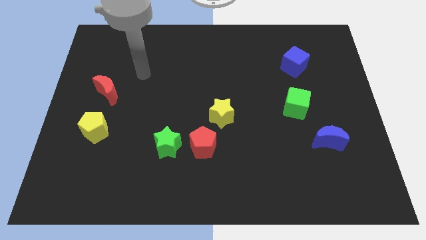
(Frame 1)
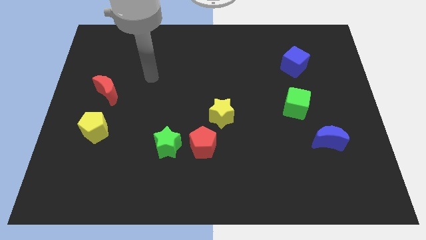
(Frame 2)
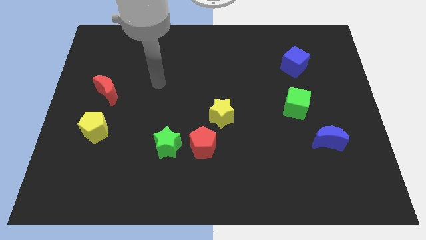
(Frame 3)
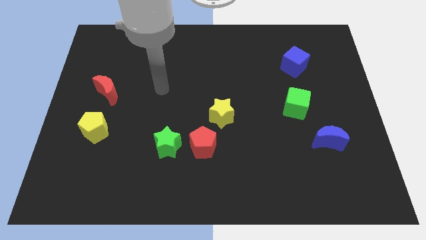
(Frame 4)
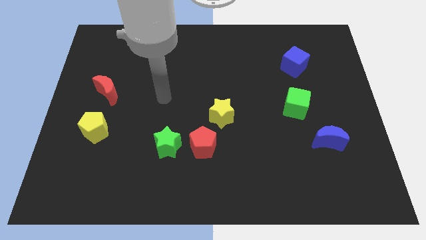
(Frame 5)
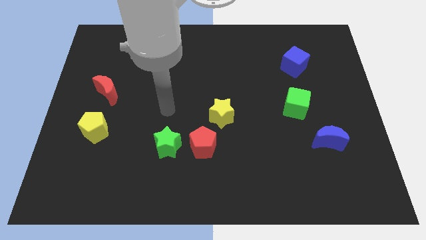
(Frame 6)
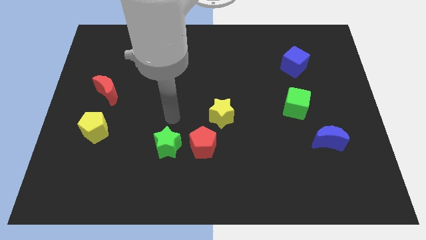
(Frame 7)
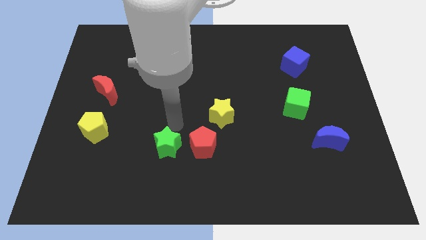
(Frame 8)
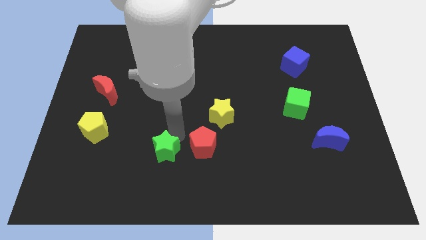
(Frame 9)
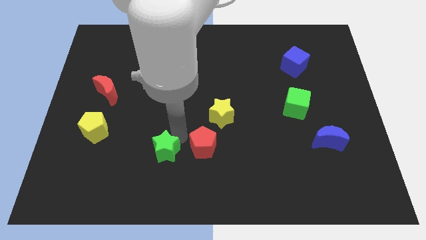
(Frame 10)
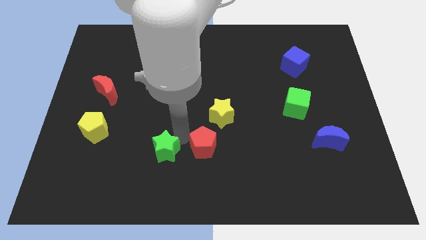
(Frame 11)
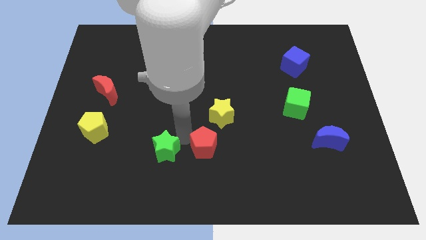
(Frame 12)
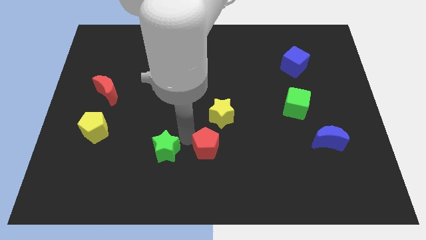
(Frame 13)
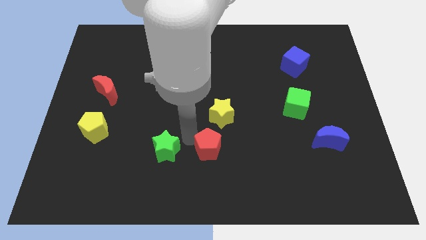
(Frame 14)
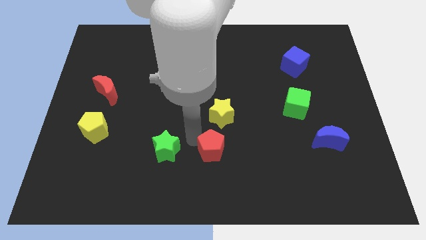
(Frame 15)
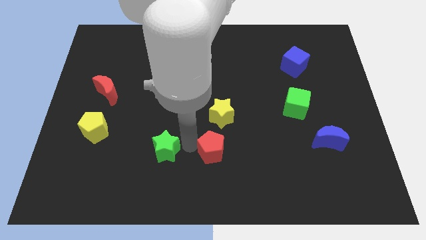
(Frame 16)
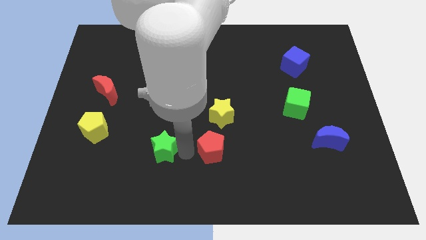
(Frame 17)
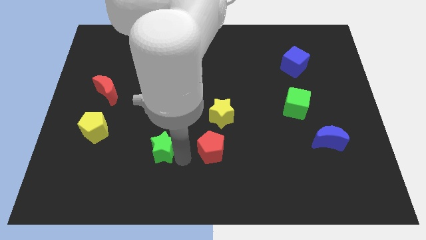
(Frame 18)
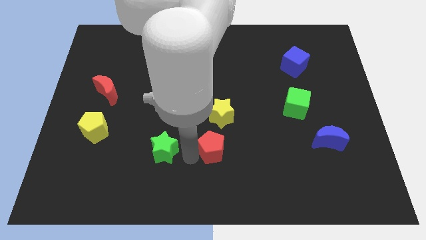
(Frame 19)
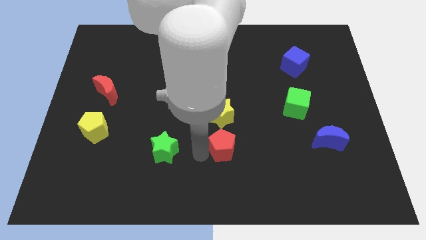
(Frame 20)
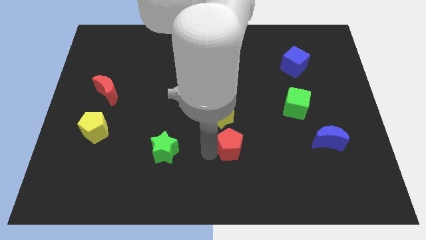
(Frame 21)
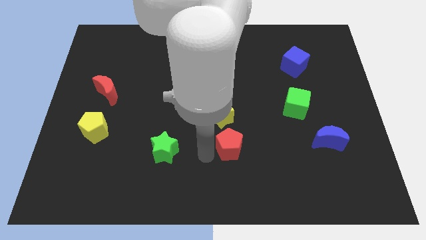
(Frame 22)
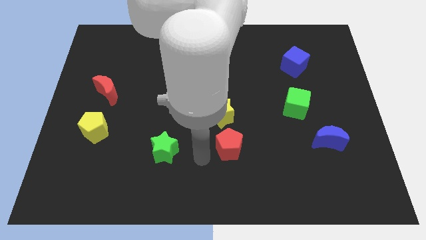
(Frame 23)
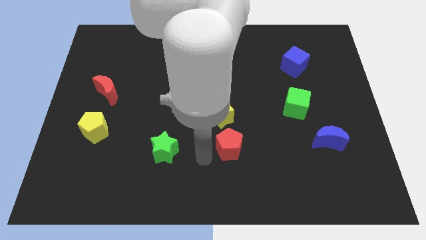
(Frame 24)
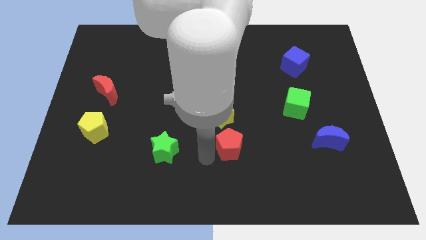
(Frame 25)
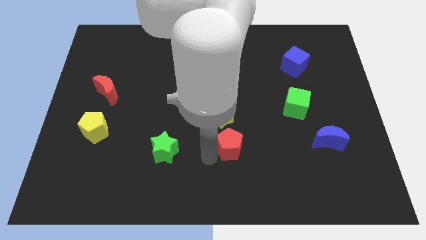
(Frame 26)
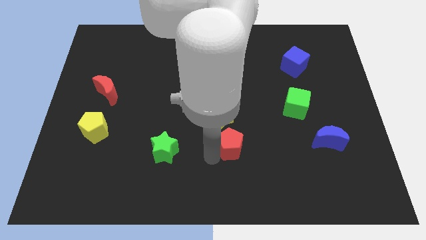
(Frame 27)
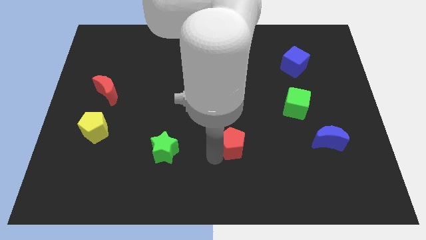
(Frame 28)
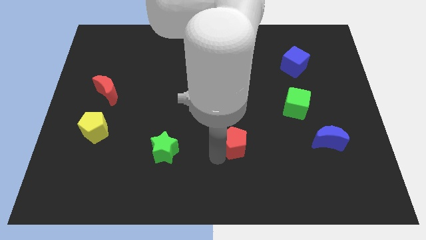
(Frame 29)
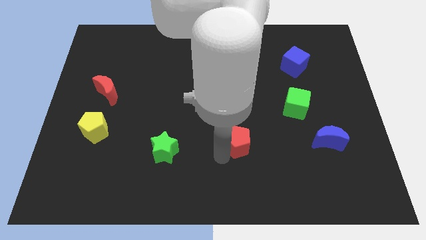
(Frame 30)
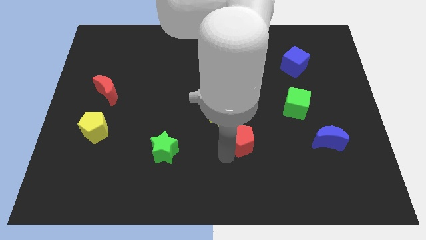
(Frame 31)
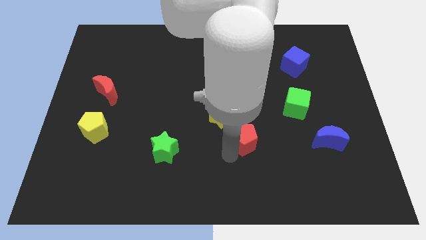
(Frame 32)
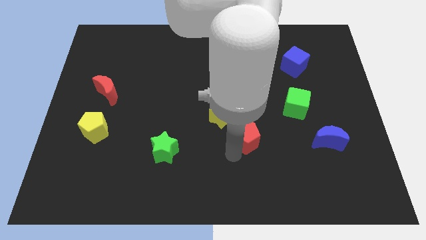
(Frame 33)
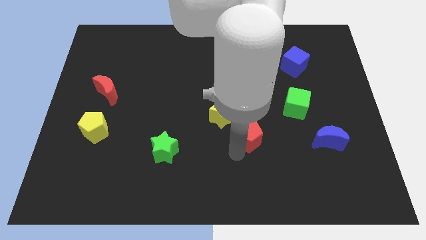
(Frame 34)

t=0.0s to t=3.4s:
slide the red pentagon upwards and to the right diagonally a bit

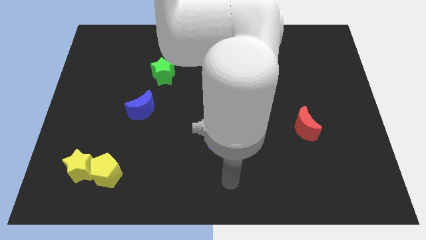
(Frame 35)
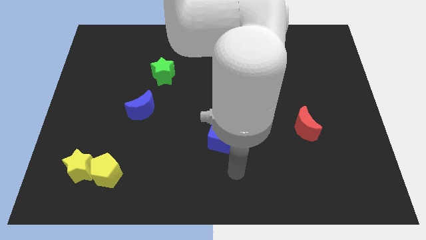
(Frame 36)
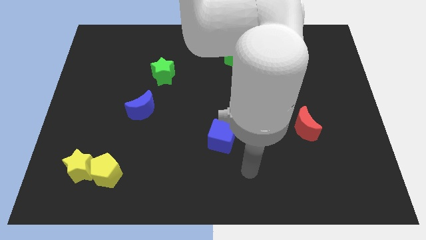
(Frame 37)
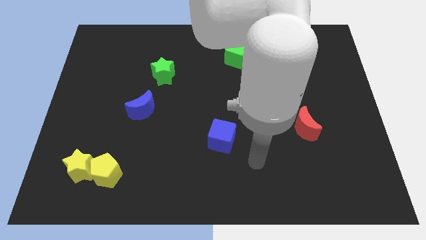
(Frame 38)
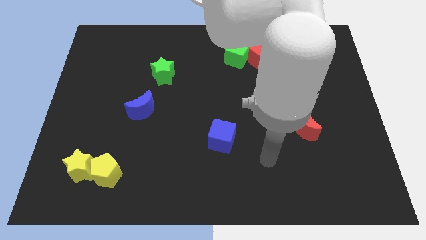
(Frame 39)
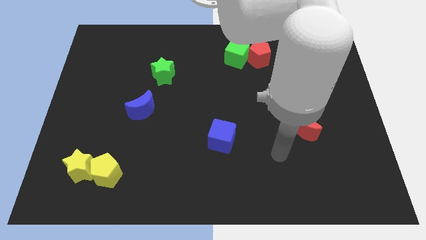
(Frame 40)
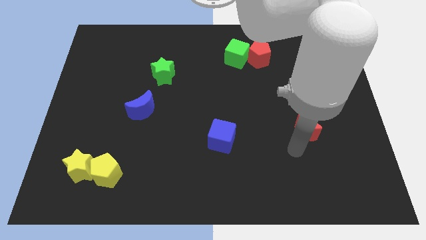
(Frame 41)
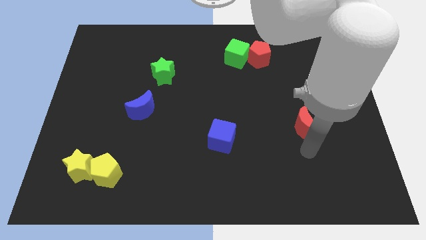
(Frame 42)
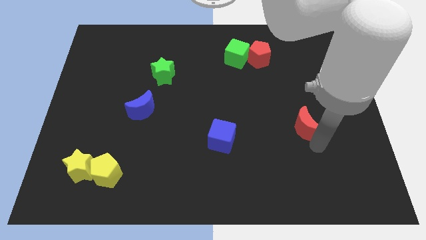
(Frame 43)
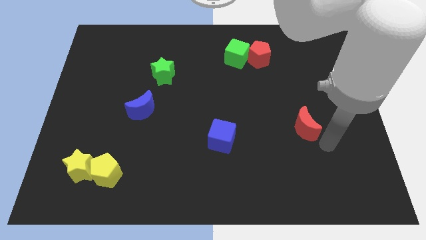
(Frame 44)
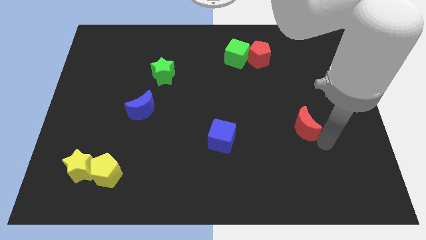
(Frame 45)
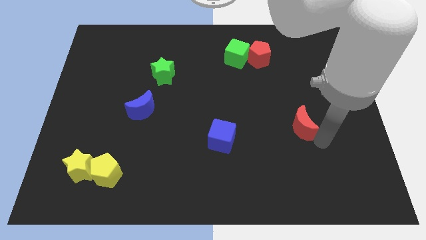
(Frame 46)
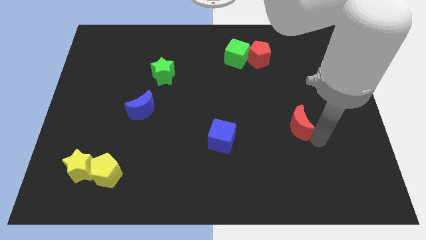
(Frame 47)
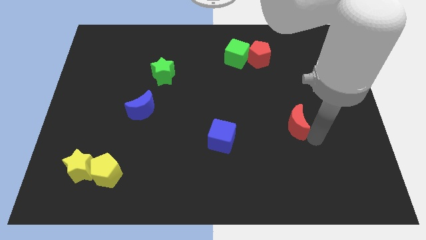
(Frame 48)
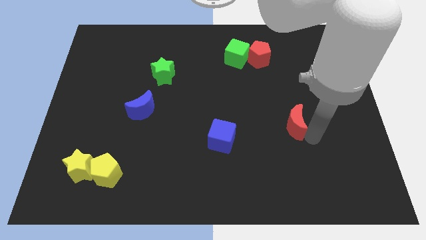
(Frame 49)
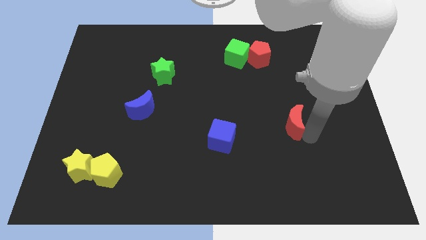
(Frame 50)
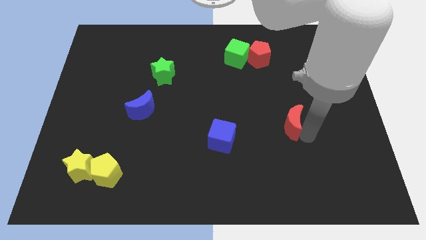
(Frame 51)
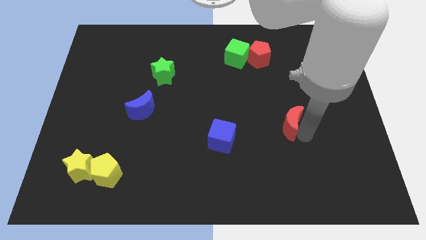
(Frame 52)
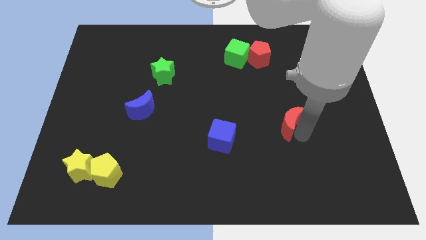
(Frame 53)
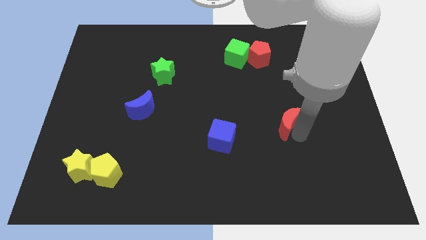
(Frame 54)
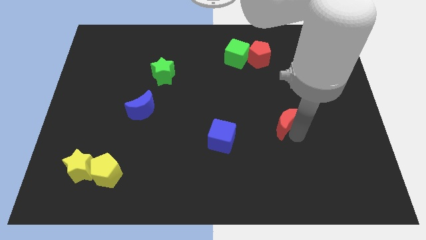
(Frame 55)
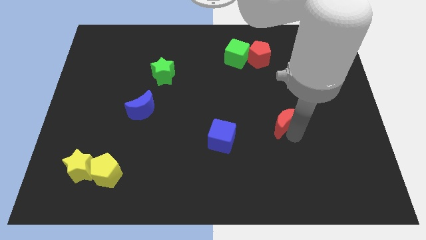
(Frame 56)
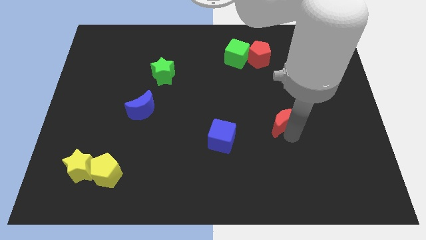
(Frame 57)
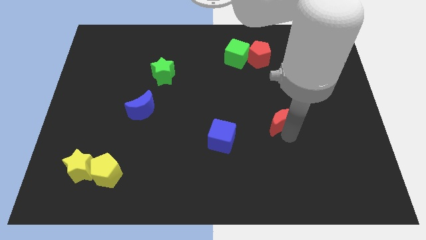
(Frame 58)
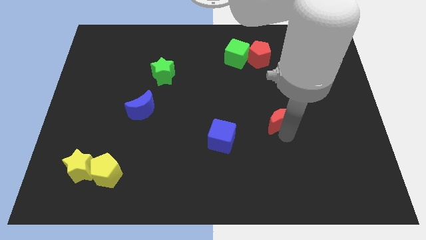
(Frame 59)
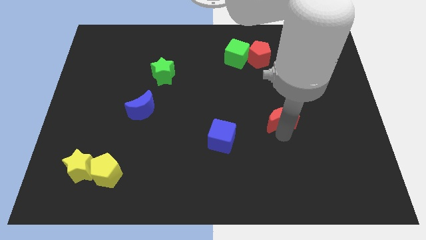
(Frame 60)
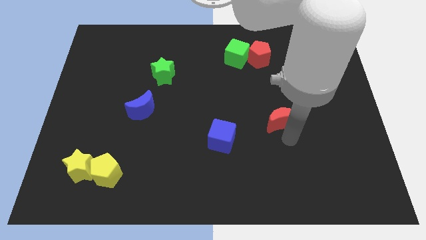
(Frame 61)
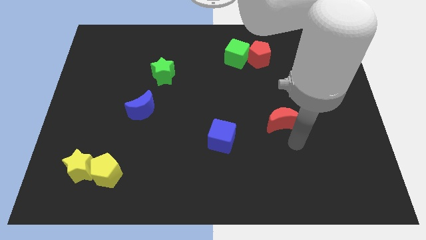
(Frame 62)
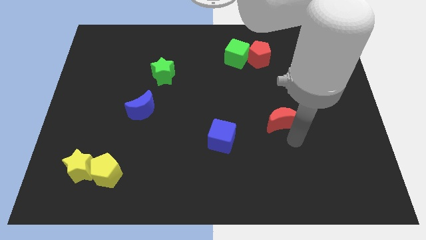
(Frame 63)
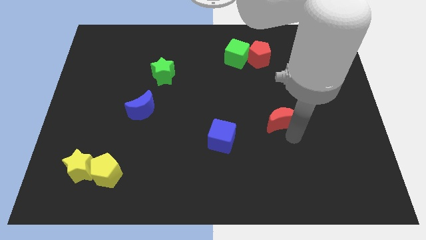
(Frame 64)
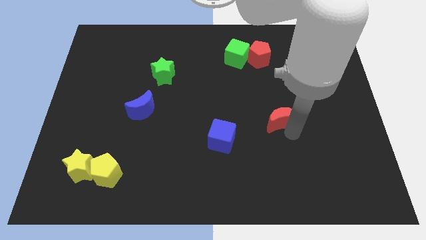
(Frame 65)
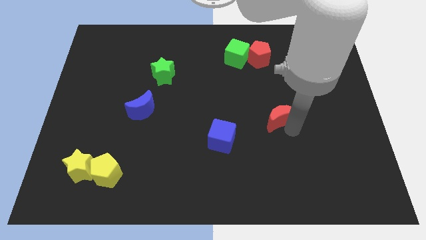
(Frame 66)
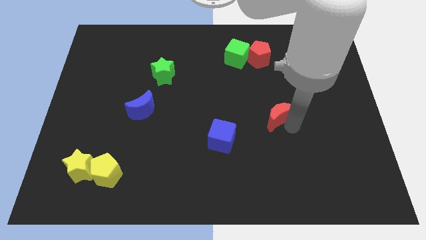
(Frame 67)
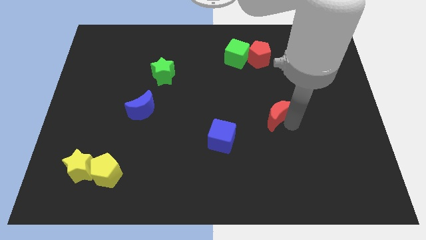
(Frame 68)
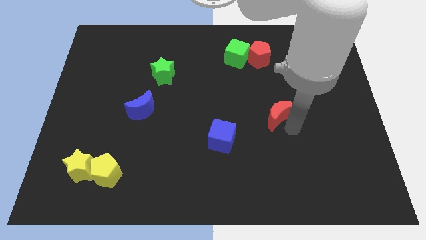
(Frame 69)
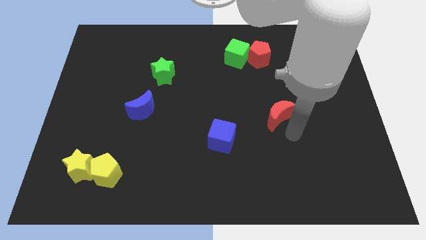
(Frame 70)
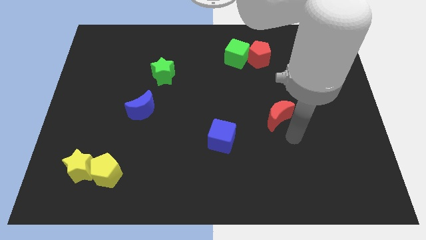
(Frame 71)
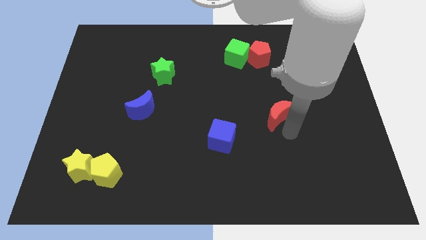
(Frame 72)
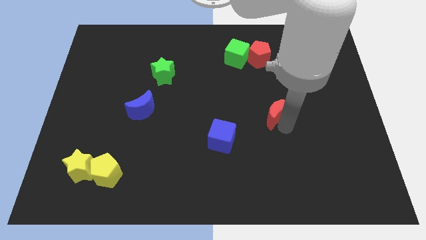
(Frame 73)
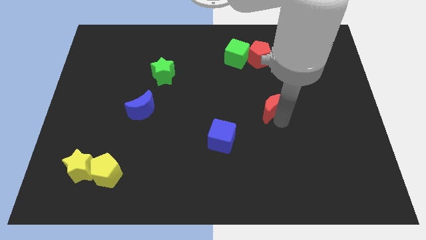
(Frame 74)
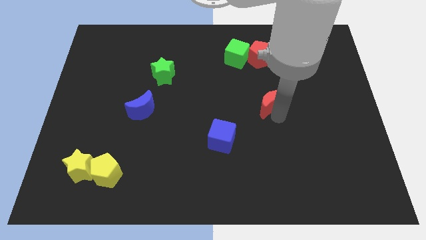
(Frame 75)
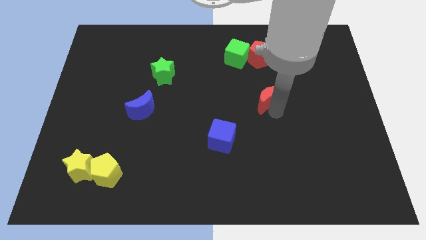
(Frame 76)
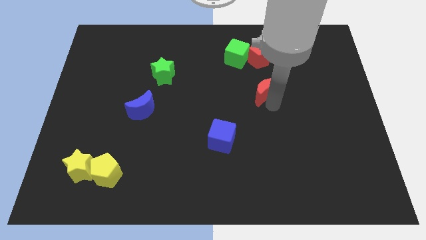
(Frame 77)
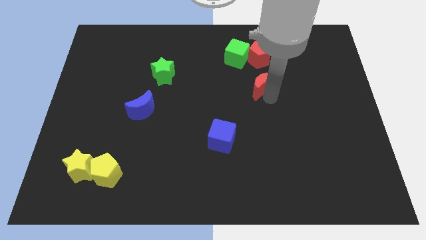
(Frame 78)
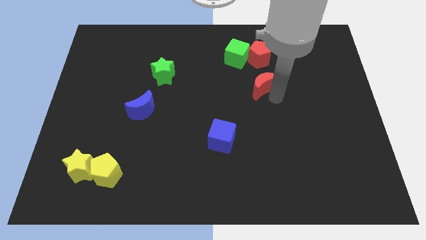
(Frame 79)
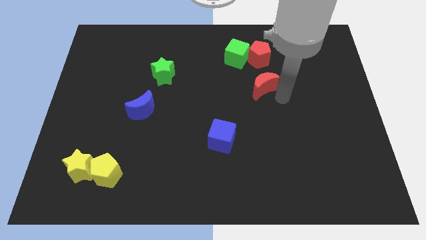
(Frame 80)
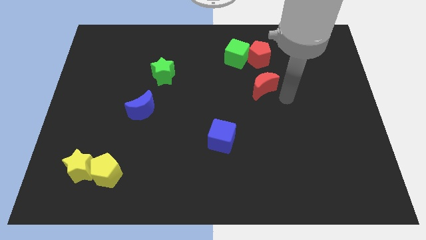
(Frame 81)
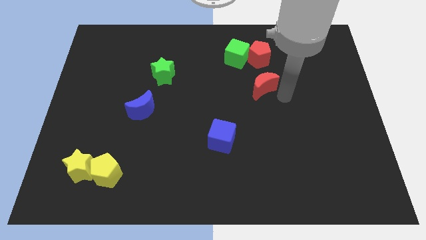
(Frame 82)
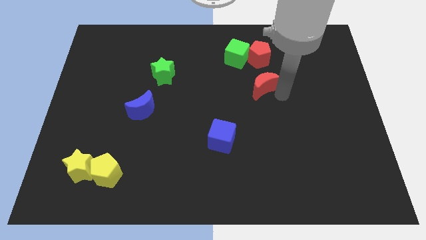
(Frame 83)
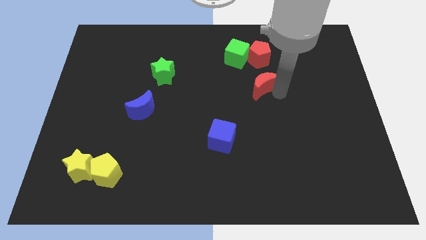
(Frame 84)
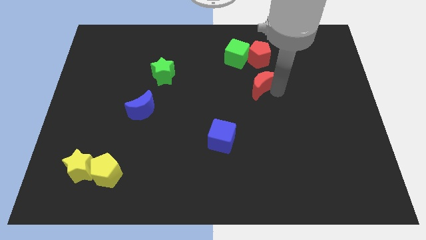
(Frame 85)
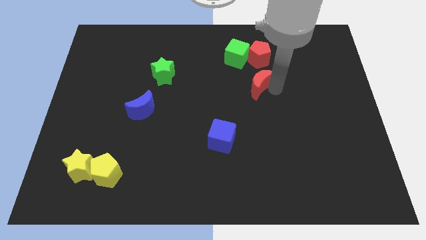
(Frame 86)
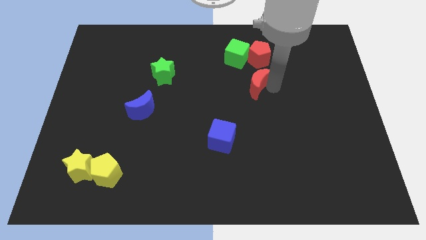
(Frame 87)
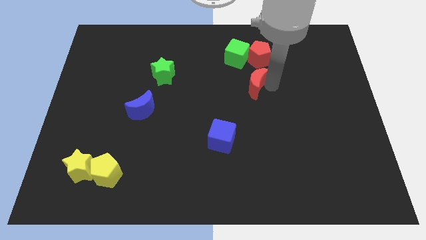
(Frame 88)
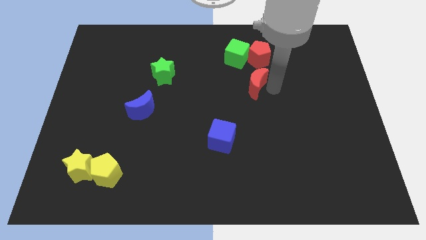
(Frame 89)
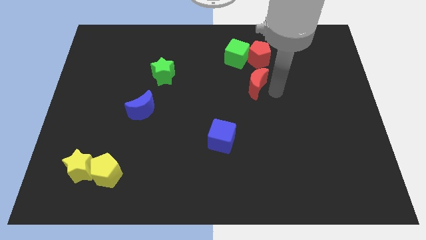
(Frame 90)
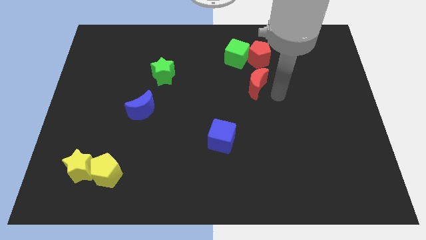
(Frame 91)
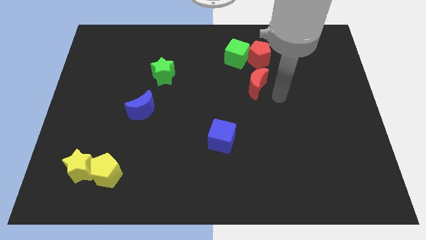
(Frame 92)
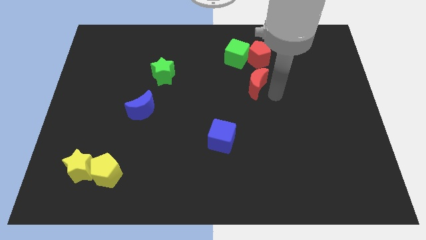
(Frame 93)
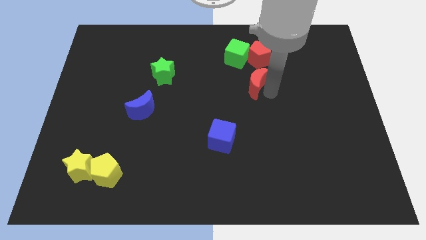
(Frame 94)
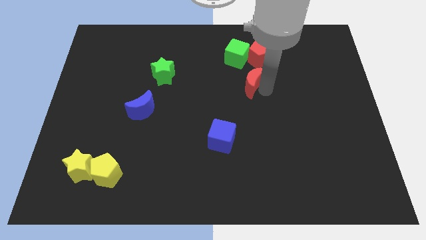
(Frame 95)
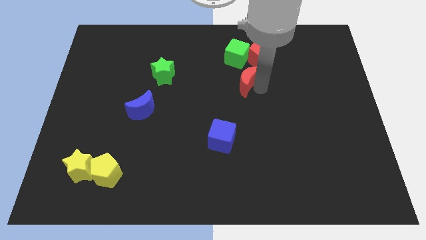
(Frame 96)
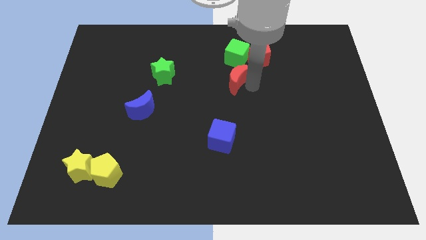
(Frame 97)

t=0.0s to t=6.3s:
push the red moon up and to the left diagonally
